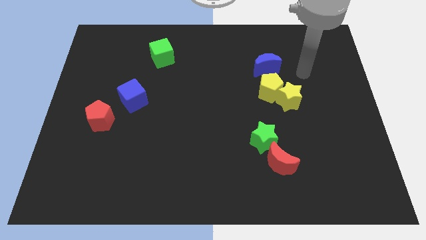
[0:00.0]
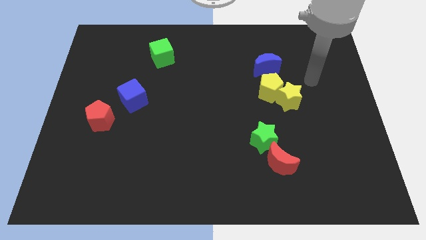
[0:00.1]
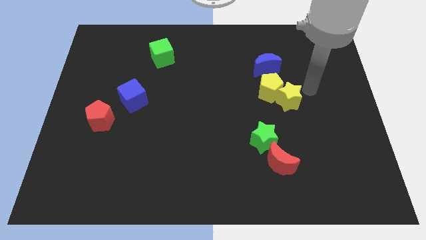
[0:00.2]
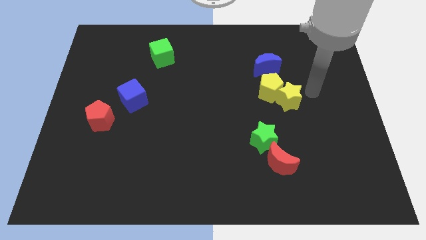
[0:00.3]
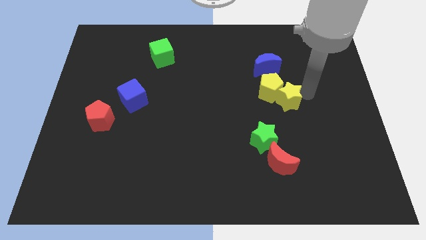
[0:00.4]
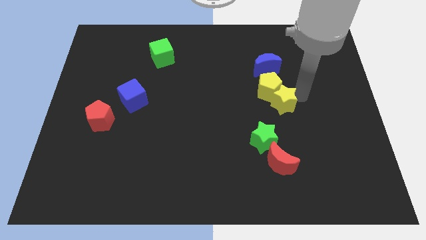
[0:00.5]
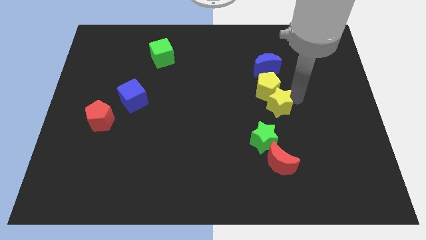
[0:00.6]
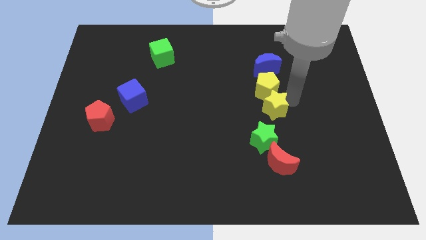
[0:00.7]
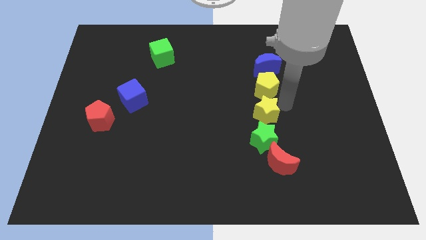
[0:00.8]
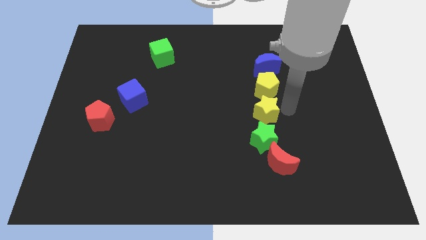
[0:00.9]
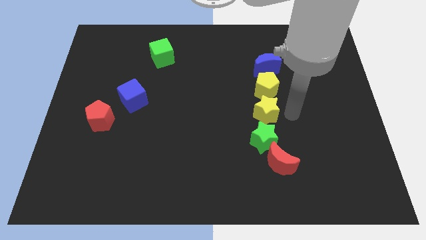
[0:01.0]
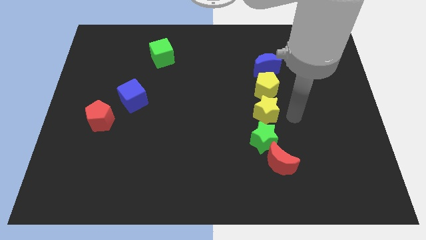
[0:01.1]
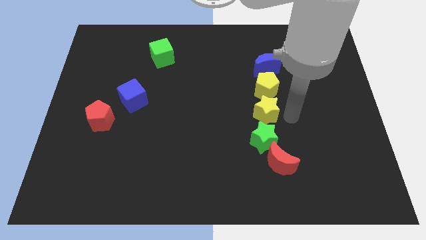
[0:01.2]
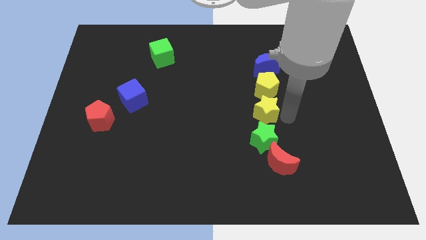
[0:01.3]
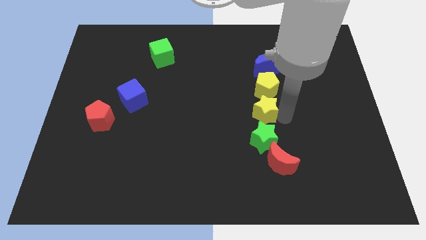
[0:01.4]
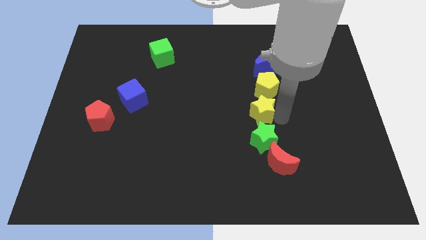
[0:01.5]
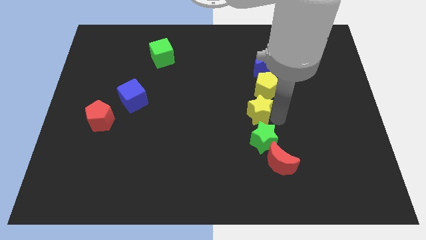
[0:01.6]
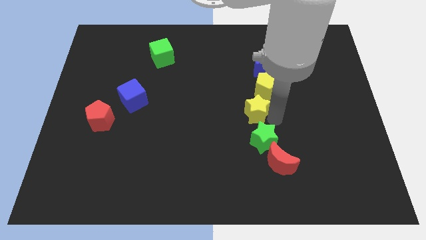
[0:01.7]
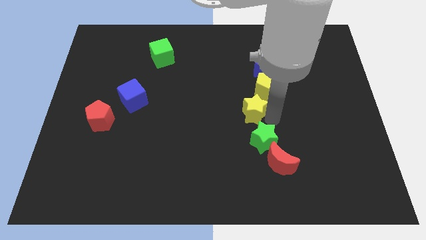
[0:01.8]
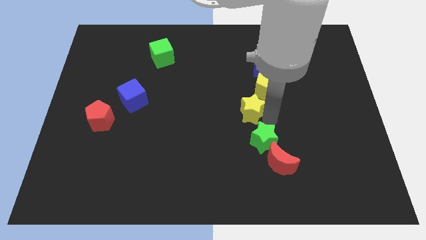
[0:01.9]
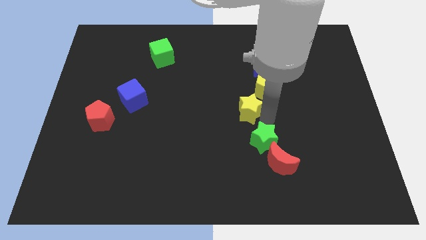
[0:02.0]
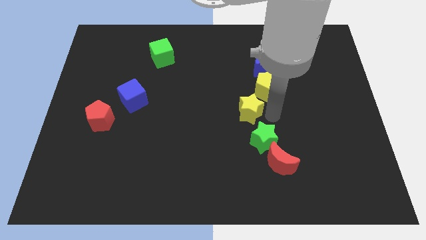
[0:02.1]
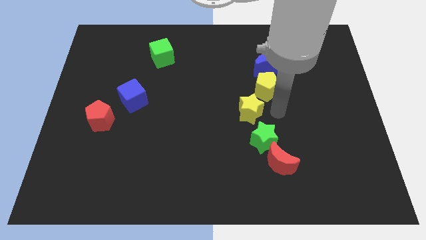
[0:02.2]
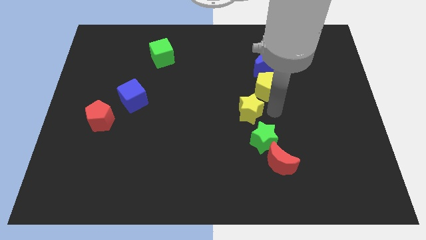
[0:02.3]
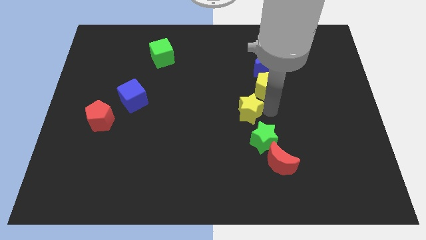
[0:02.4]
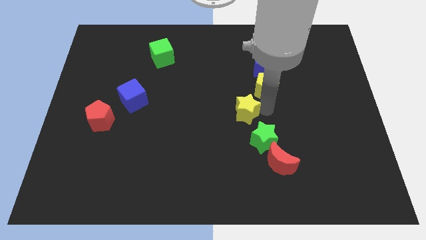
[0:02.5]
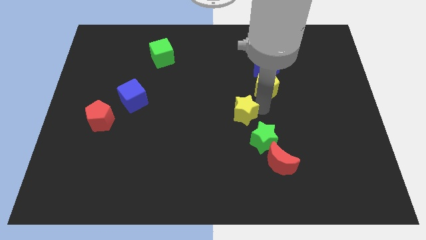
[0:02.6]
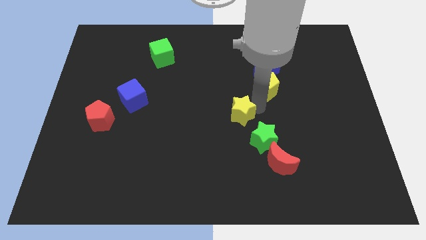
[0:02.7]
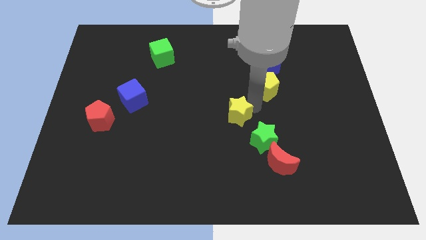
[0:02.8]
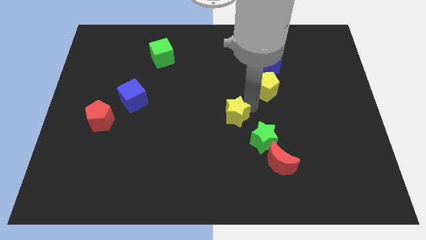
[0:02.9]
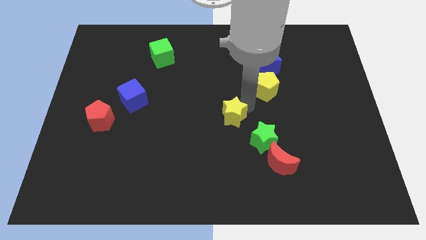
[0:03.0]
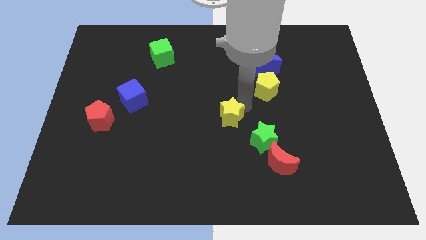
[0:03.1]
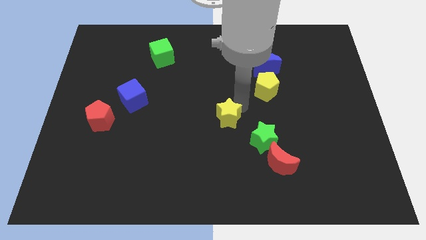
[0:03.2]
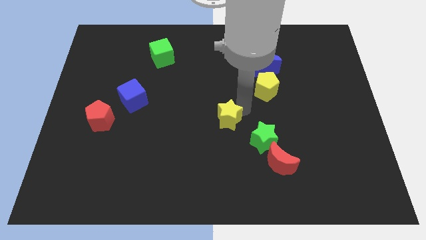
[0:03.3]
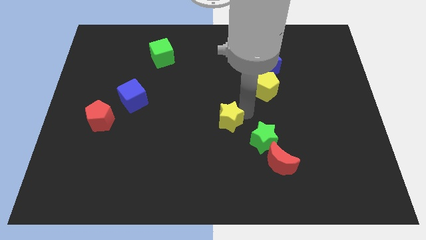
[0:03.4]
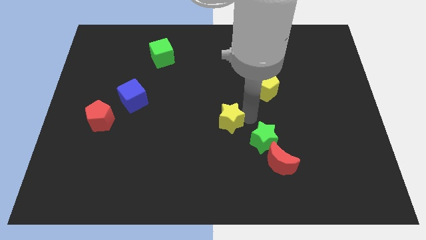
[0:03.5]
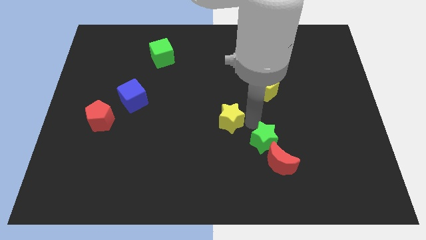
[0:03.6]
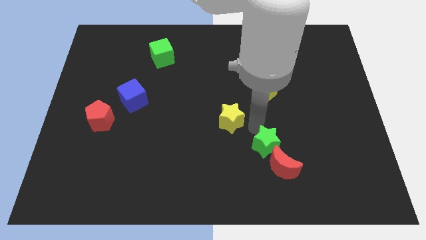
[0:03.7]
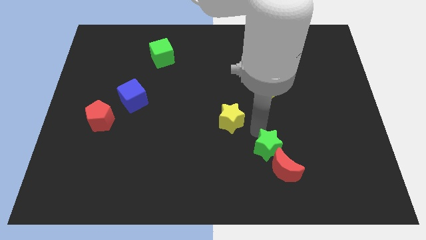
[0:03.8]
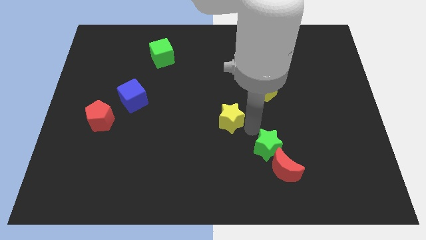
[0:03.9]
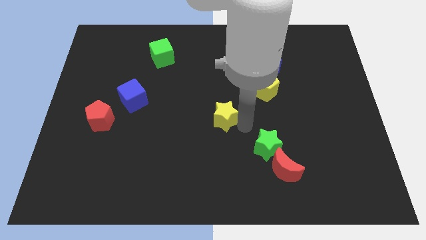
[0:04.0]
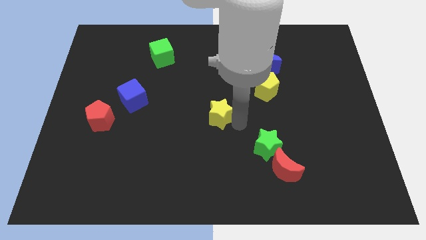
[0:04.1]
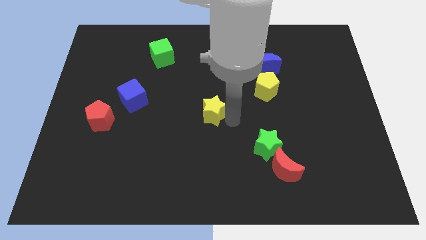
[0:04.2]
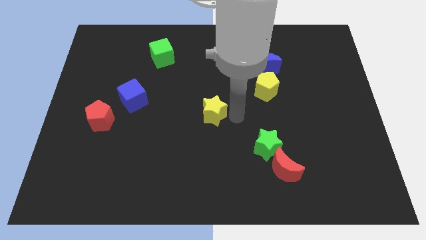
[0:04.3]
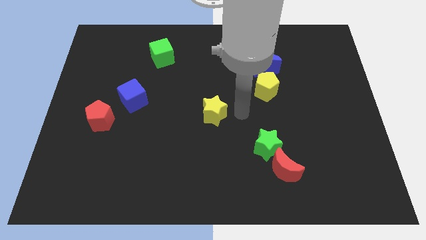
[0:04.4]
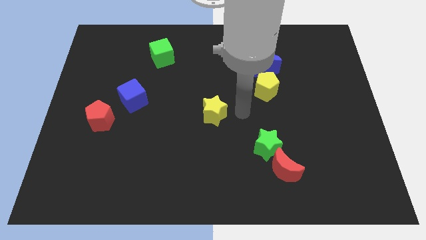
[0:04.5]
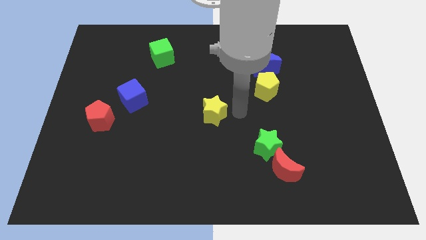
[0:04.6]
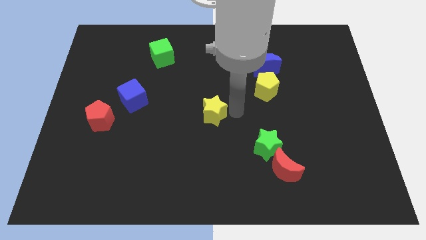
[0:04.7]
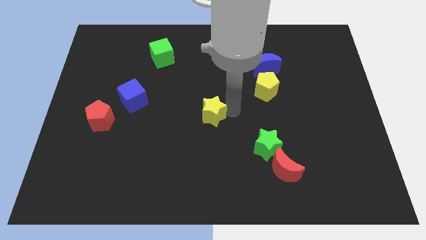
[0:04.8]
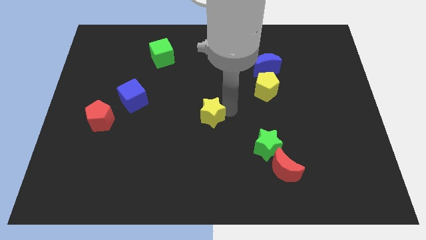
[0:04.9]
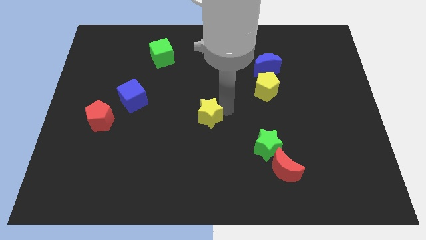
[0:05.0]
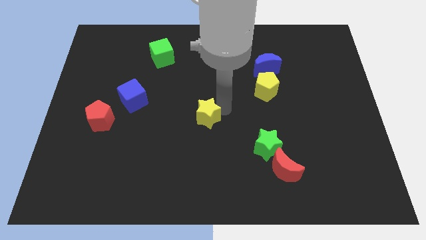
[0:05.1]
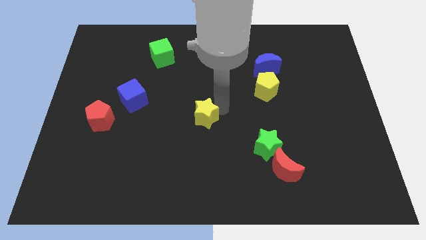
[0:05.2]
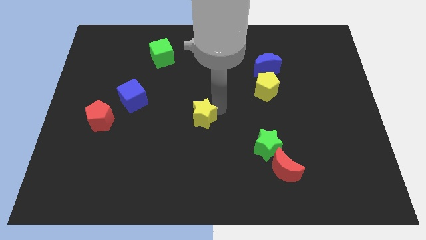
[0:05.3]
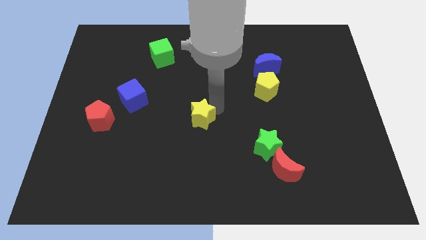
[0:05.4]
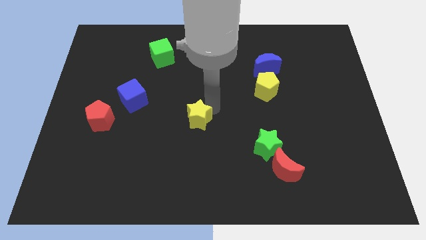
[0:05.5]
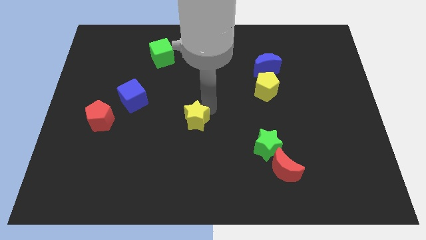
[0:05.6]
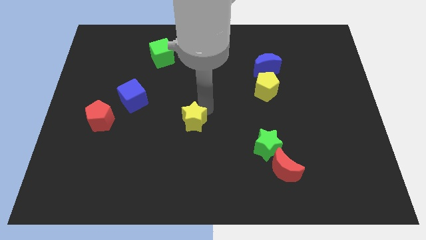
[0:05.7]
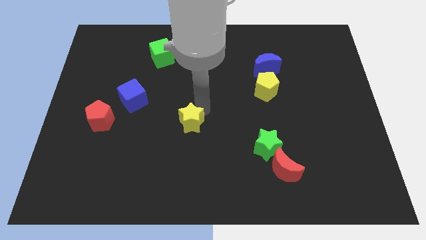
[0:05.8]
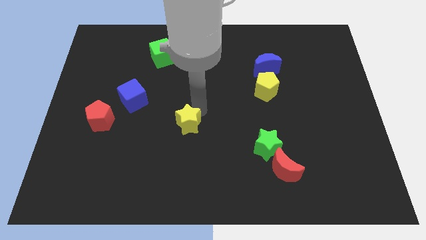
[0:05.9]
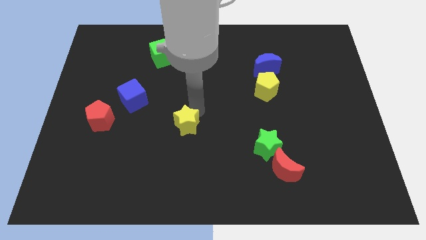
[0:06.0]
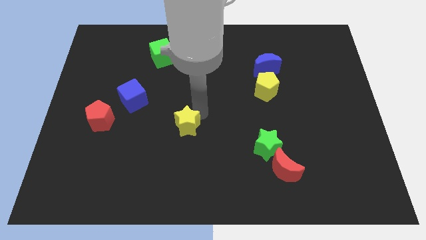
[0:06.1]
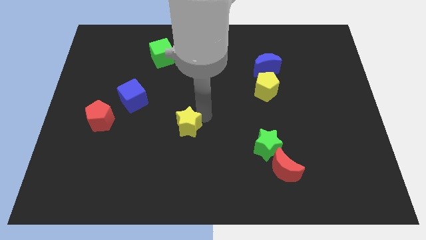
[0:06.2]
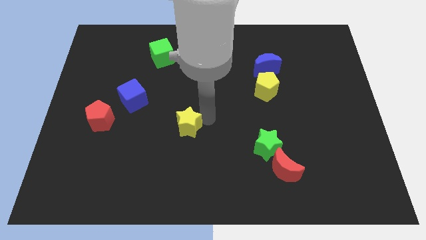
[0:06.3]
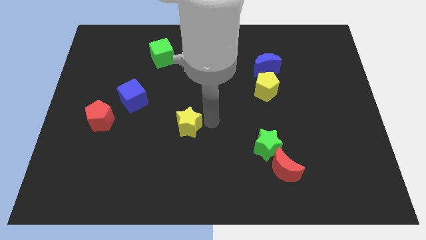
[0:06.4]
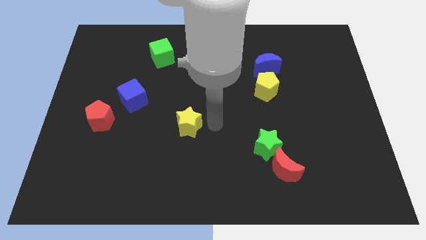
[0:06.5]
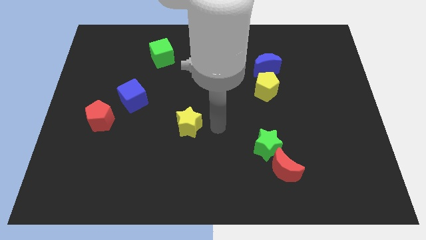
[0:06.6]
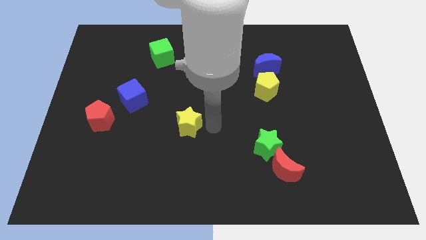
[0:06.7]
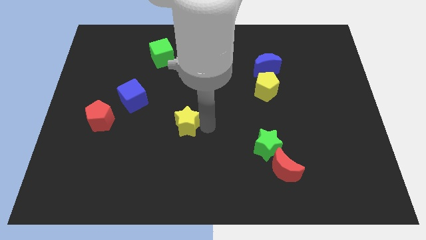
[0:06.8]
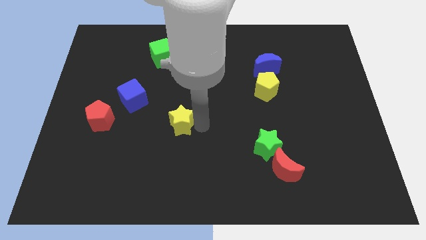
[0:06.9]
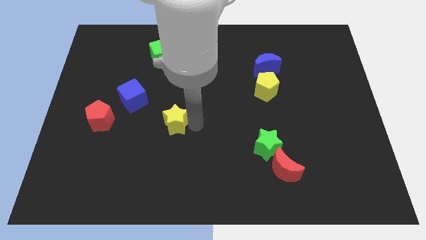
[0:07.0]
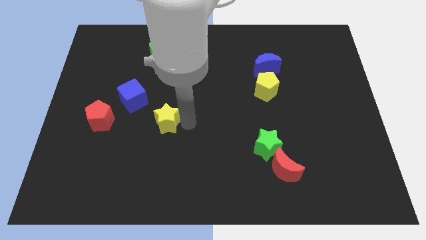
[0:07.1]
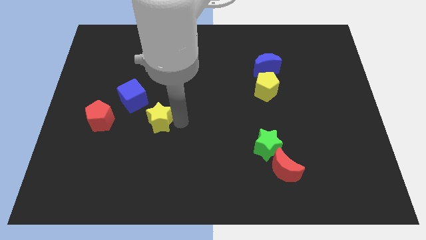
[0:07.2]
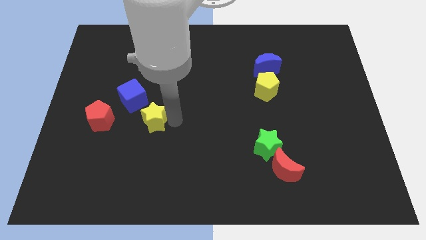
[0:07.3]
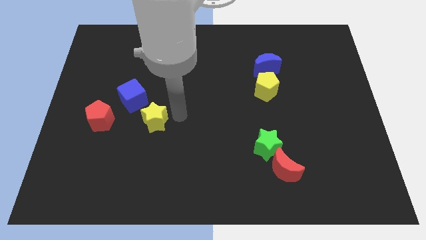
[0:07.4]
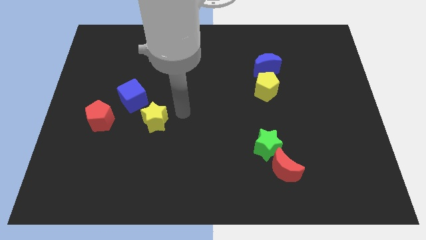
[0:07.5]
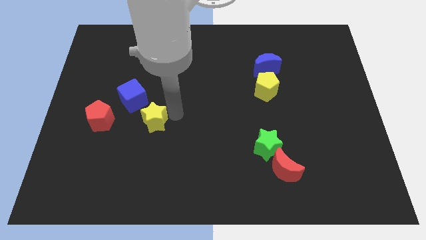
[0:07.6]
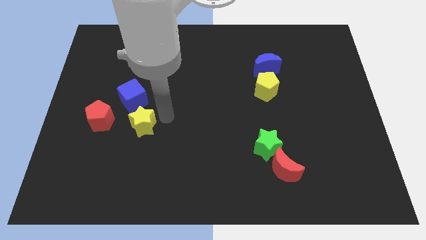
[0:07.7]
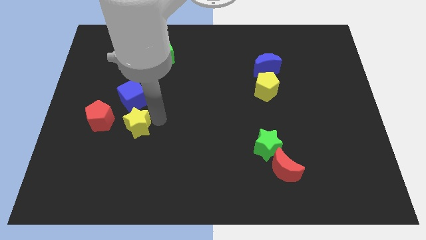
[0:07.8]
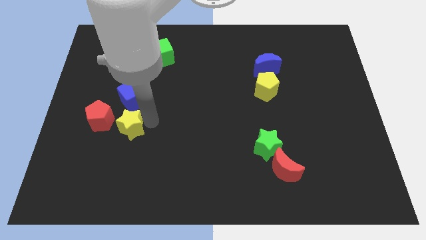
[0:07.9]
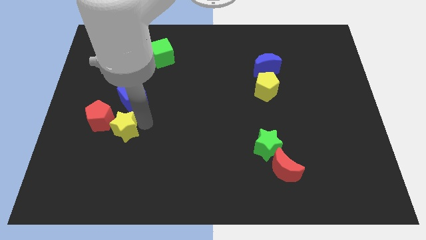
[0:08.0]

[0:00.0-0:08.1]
move the yellow star towards the red pentagon
